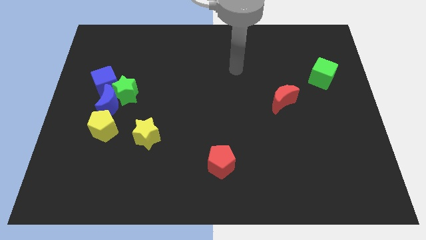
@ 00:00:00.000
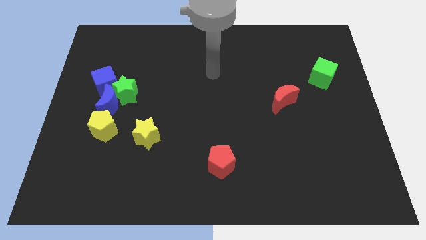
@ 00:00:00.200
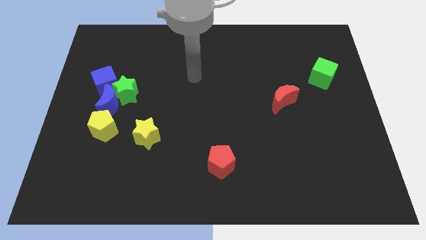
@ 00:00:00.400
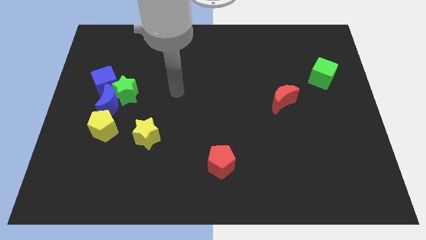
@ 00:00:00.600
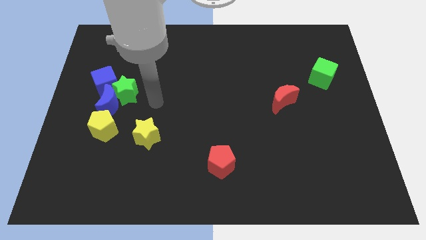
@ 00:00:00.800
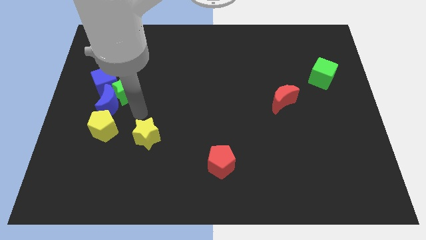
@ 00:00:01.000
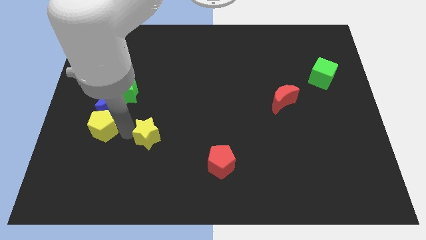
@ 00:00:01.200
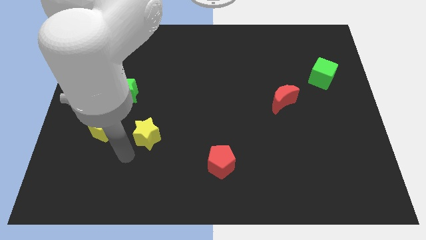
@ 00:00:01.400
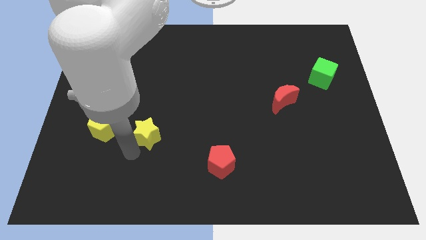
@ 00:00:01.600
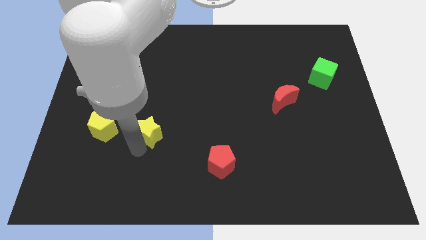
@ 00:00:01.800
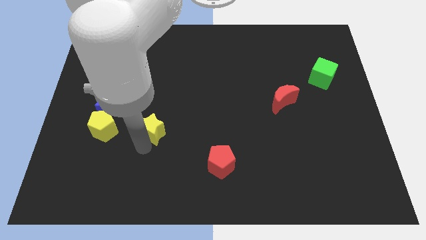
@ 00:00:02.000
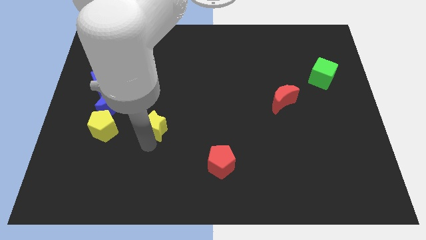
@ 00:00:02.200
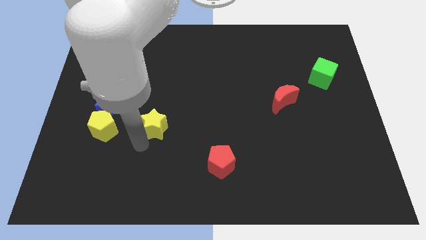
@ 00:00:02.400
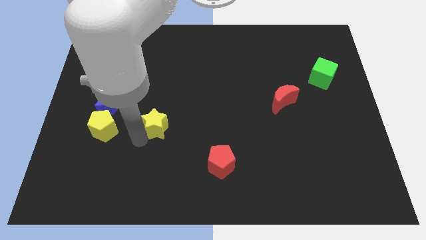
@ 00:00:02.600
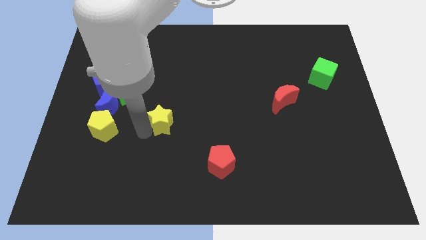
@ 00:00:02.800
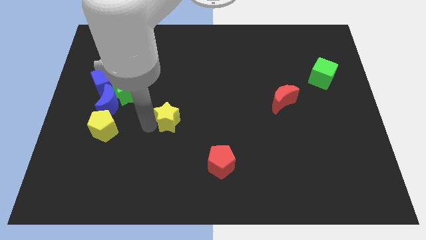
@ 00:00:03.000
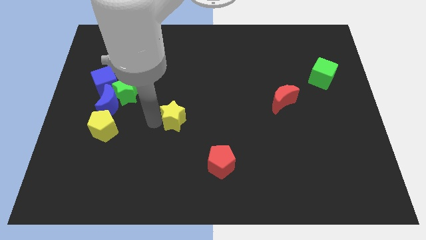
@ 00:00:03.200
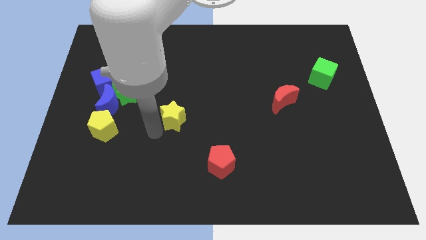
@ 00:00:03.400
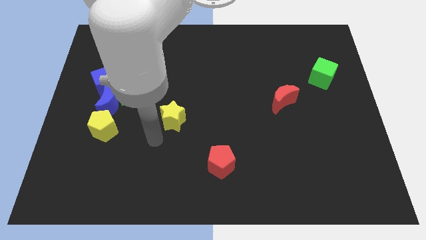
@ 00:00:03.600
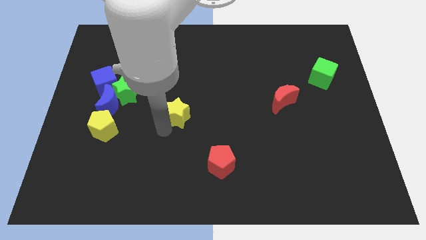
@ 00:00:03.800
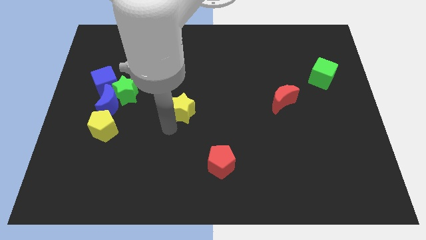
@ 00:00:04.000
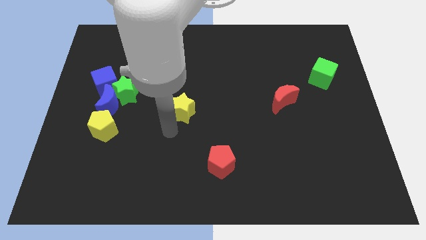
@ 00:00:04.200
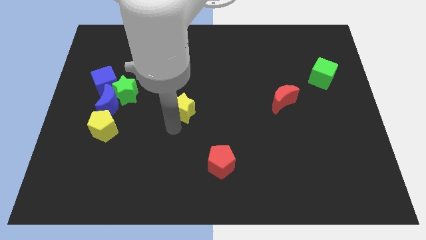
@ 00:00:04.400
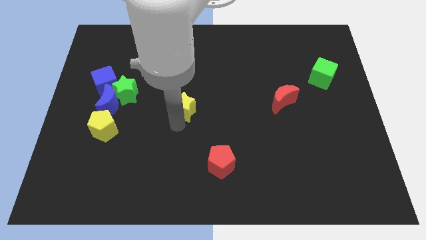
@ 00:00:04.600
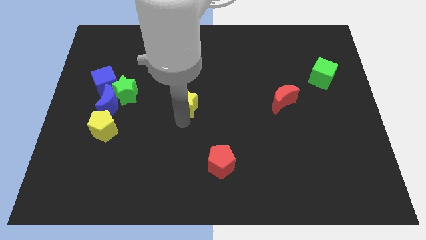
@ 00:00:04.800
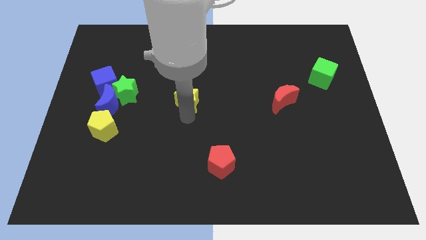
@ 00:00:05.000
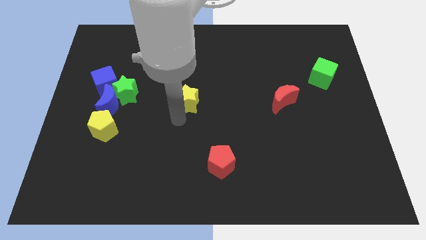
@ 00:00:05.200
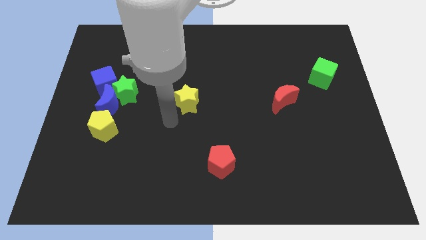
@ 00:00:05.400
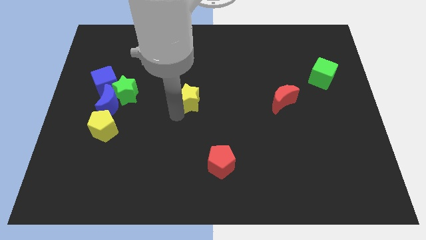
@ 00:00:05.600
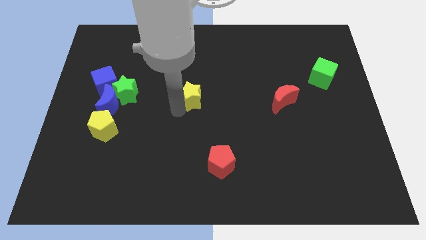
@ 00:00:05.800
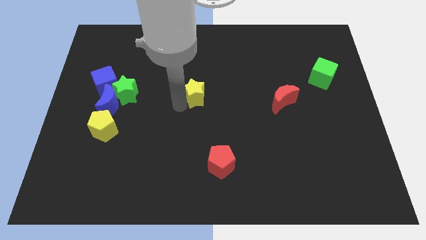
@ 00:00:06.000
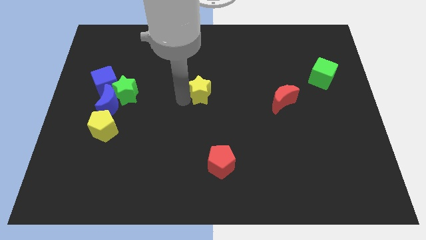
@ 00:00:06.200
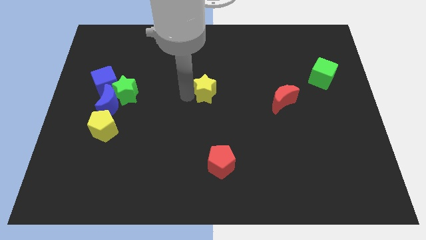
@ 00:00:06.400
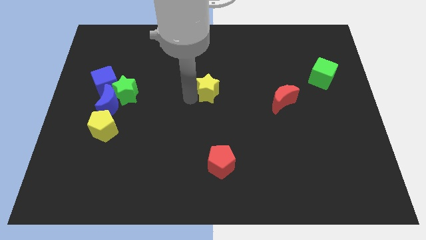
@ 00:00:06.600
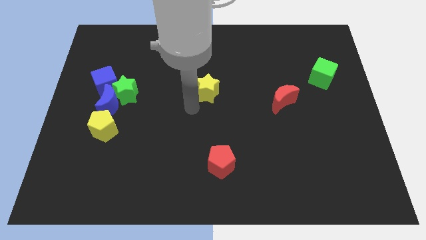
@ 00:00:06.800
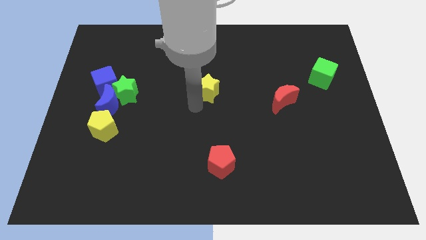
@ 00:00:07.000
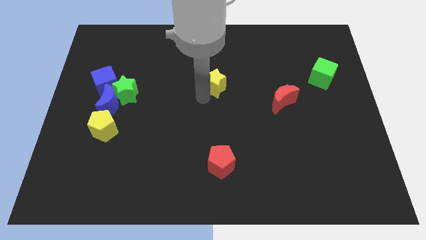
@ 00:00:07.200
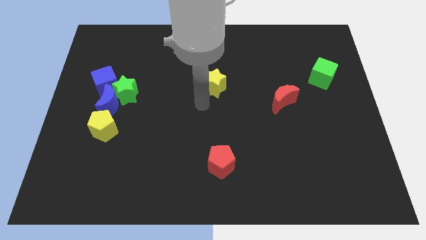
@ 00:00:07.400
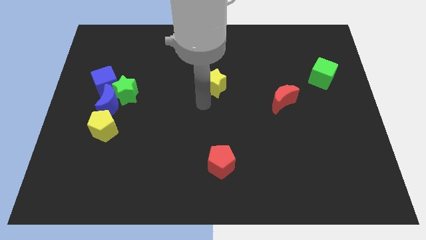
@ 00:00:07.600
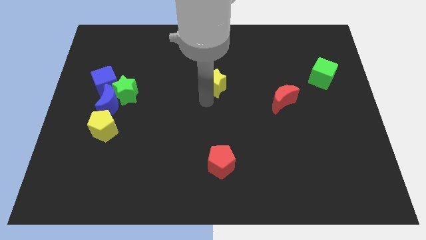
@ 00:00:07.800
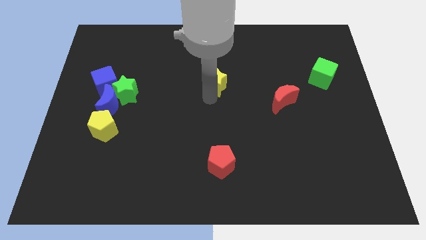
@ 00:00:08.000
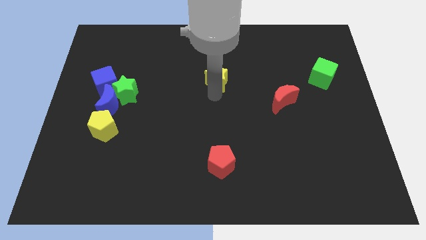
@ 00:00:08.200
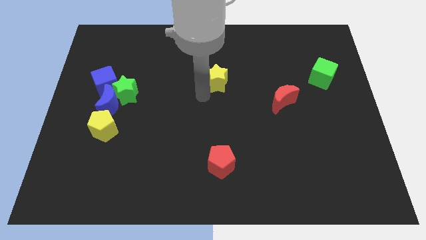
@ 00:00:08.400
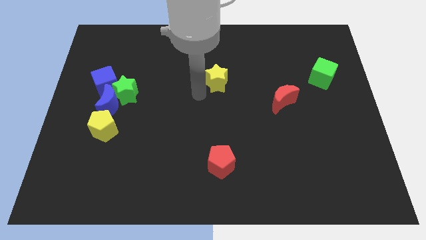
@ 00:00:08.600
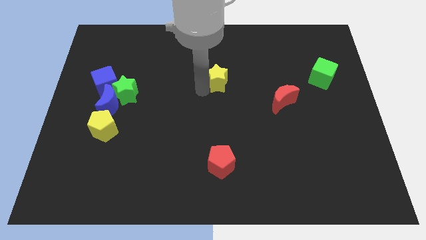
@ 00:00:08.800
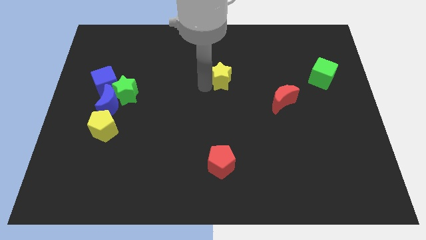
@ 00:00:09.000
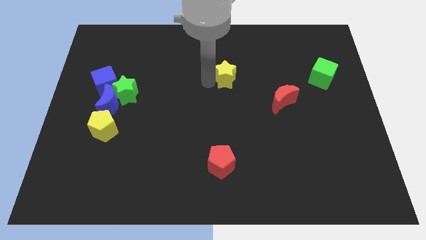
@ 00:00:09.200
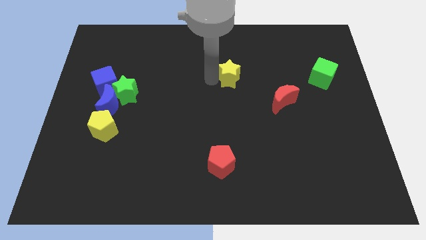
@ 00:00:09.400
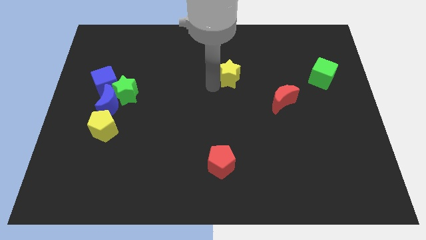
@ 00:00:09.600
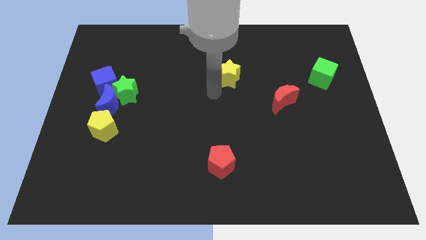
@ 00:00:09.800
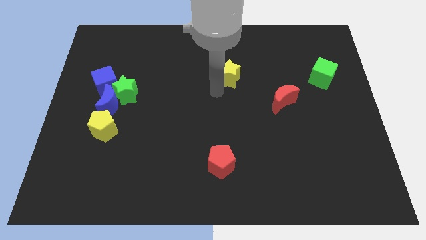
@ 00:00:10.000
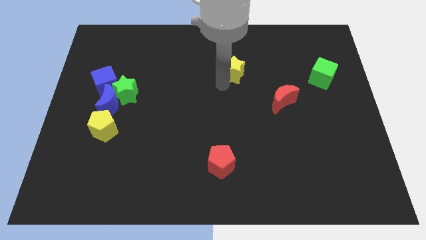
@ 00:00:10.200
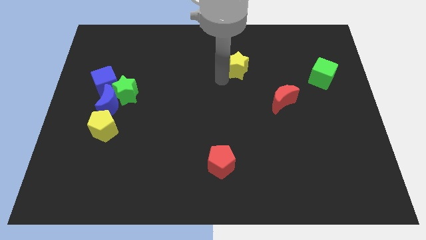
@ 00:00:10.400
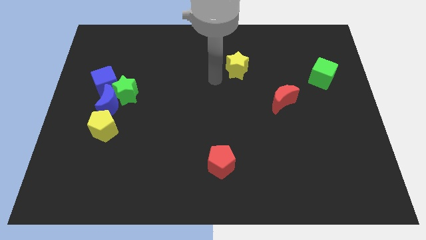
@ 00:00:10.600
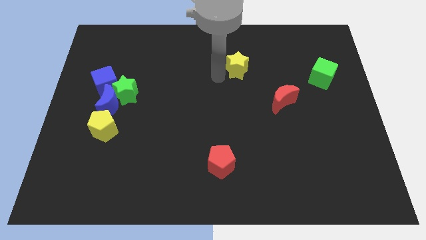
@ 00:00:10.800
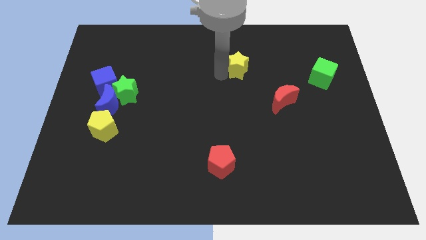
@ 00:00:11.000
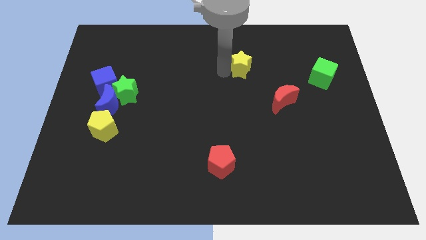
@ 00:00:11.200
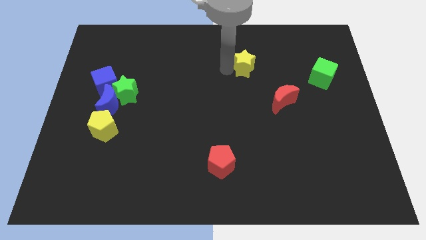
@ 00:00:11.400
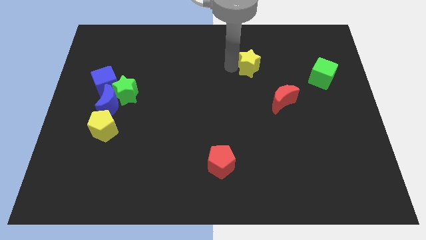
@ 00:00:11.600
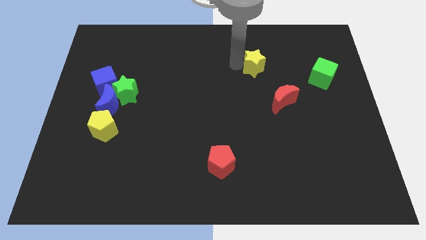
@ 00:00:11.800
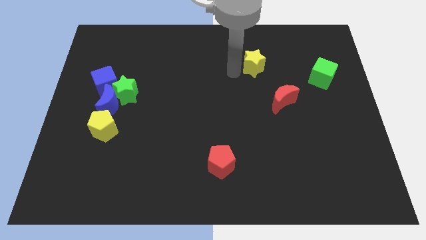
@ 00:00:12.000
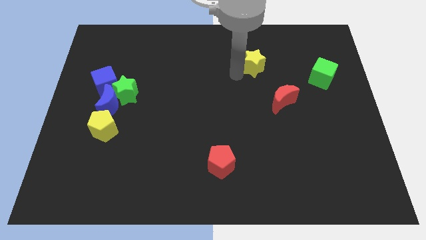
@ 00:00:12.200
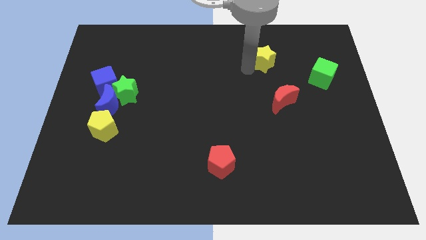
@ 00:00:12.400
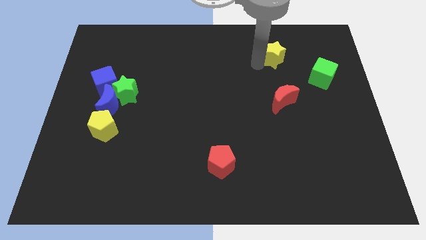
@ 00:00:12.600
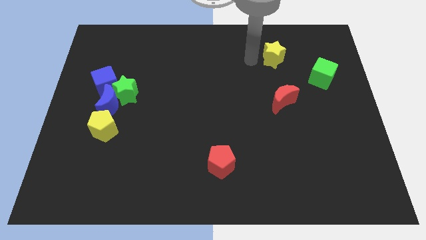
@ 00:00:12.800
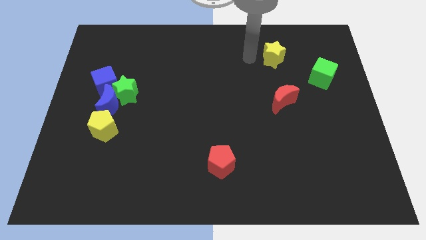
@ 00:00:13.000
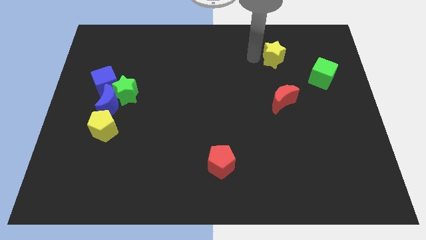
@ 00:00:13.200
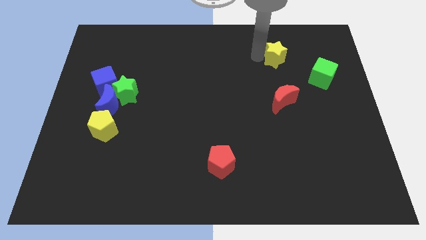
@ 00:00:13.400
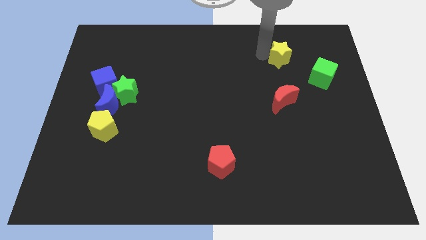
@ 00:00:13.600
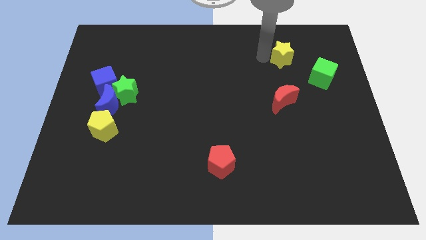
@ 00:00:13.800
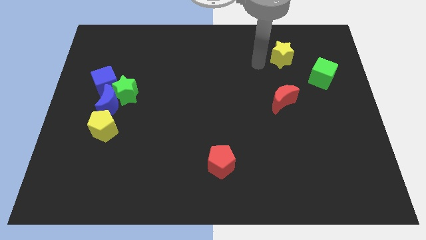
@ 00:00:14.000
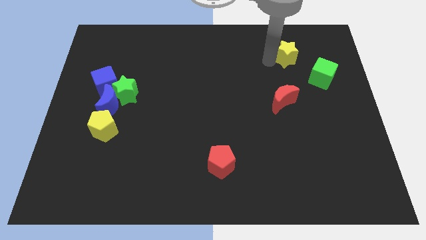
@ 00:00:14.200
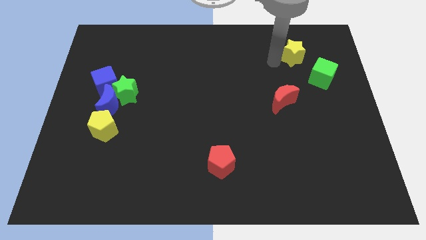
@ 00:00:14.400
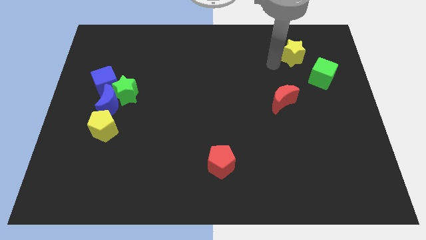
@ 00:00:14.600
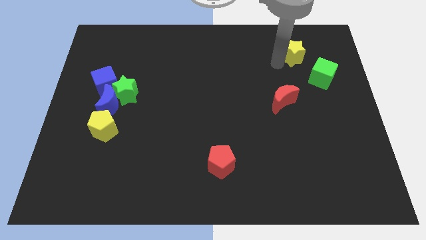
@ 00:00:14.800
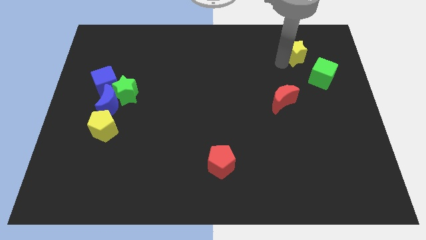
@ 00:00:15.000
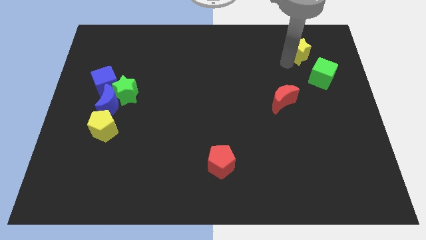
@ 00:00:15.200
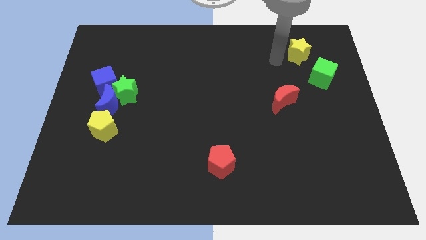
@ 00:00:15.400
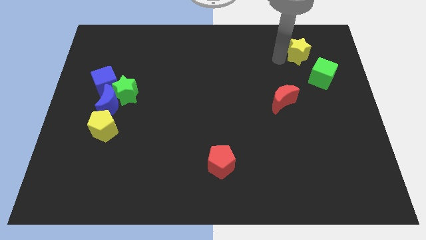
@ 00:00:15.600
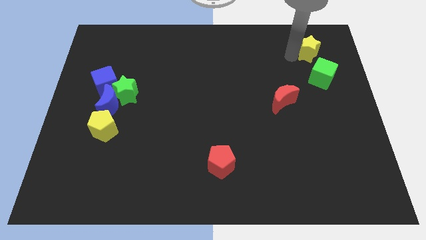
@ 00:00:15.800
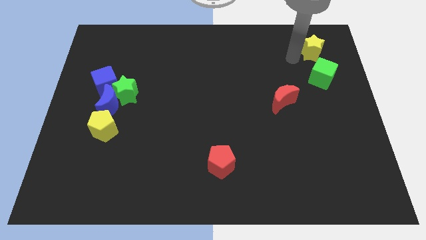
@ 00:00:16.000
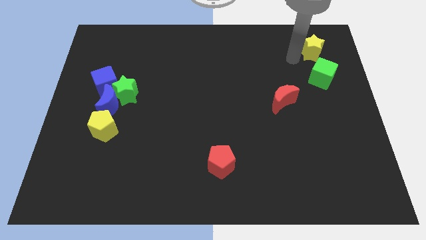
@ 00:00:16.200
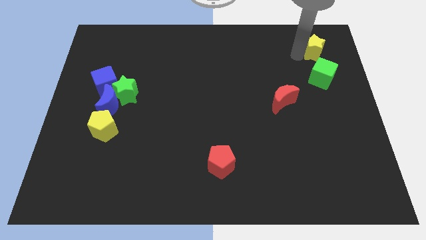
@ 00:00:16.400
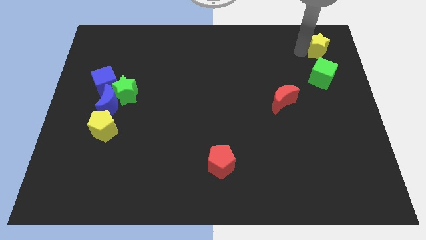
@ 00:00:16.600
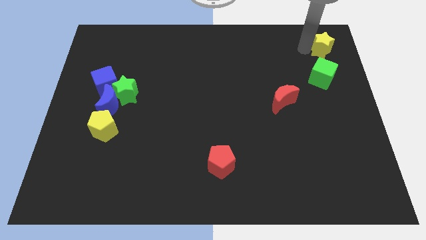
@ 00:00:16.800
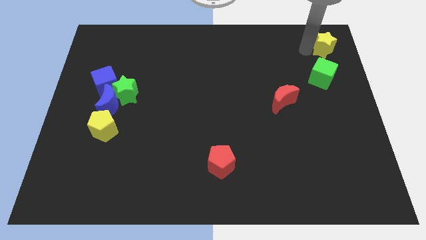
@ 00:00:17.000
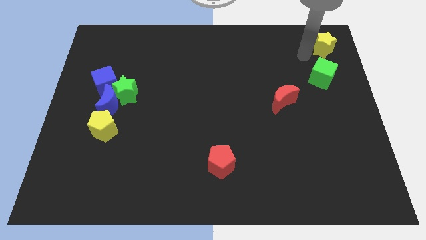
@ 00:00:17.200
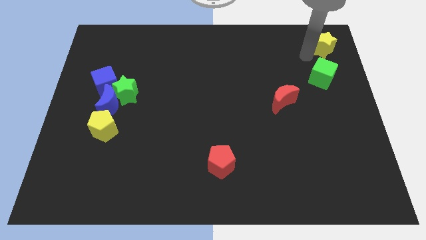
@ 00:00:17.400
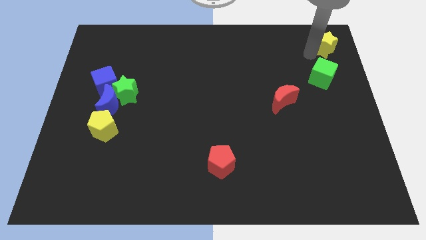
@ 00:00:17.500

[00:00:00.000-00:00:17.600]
put the yellow star to the top right corner
